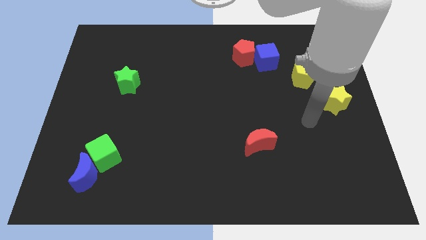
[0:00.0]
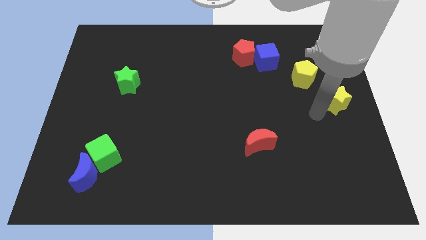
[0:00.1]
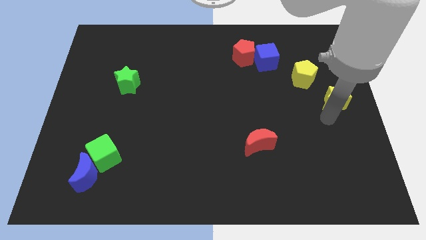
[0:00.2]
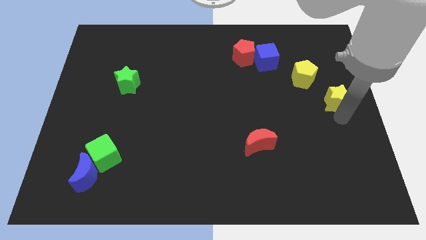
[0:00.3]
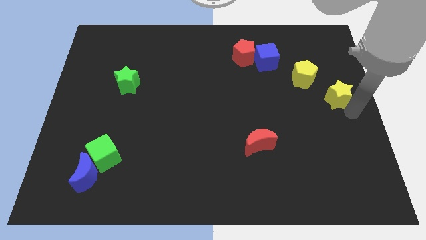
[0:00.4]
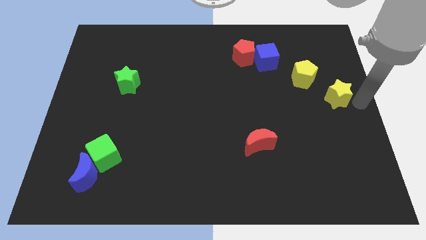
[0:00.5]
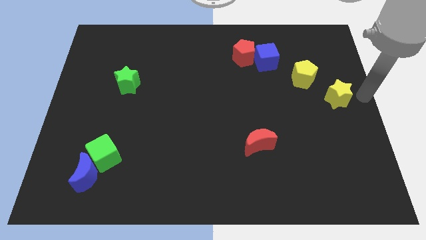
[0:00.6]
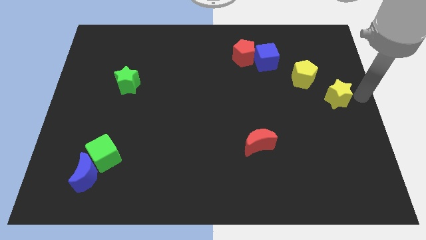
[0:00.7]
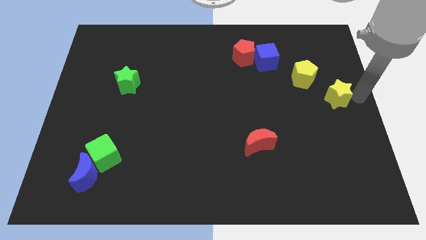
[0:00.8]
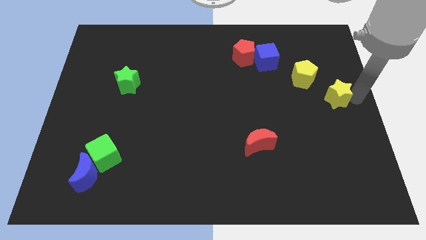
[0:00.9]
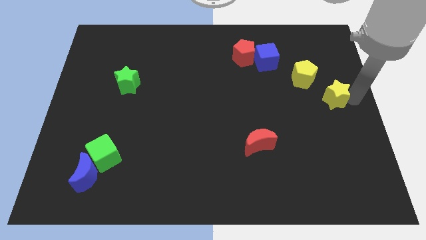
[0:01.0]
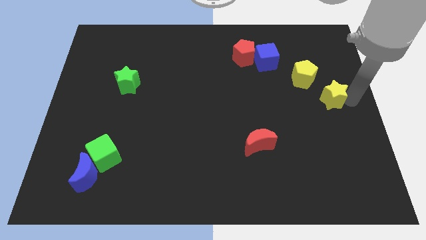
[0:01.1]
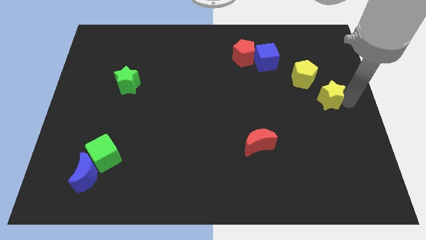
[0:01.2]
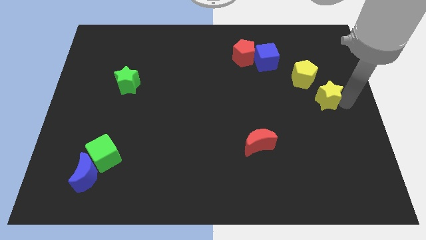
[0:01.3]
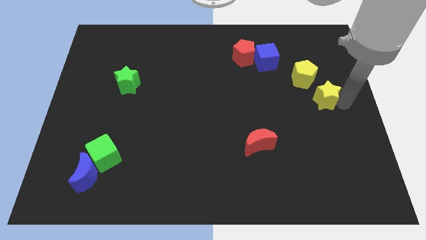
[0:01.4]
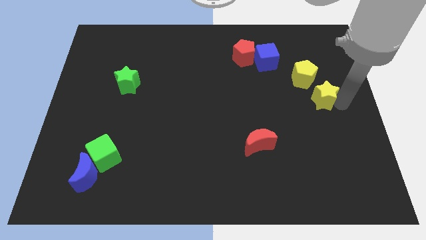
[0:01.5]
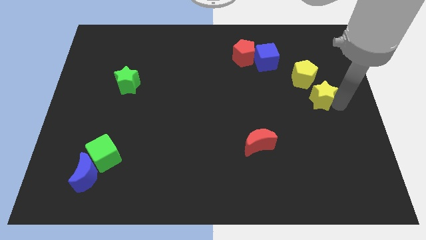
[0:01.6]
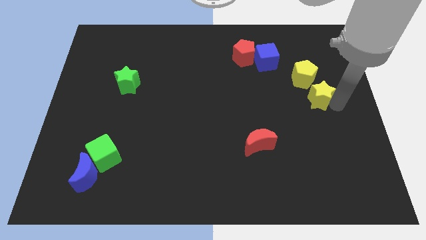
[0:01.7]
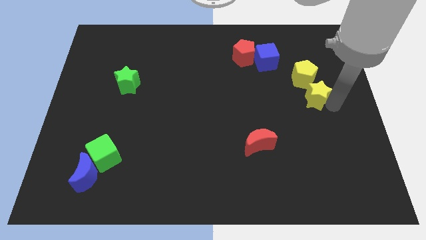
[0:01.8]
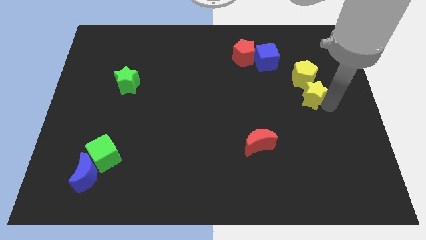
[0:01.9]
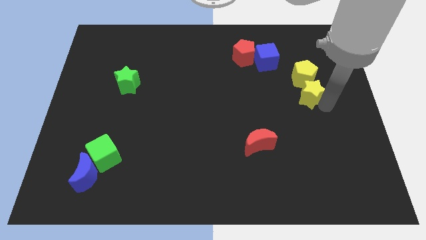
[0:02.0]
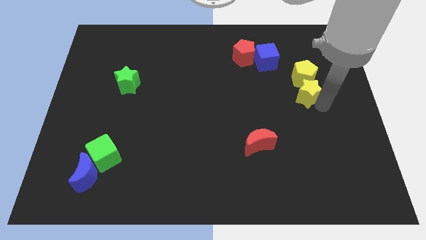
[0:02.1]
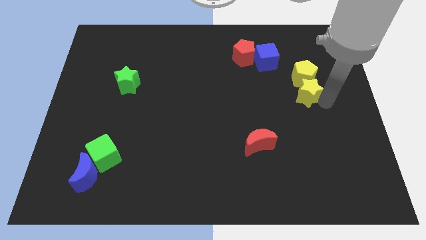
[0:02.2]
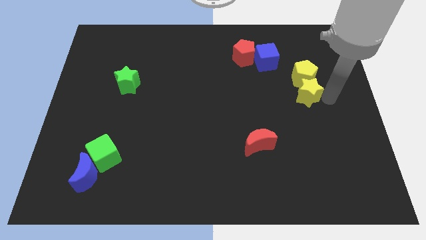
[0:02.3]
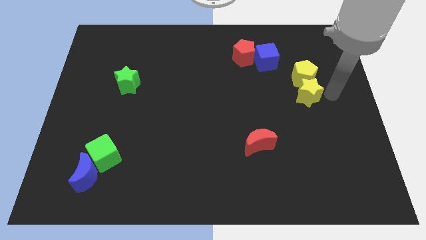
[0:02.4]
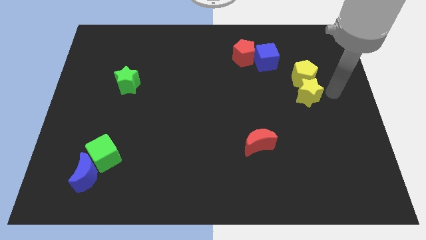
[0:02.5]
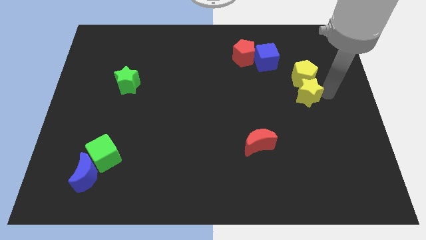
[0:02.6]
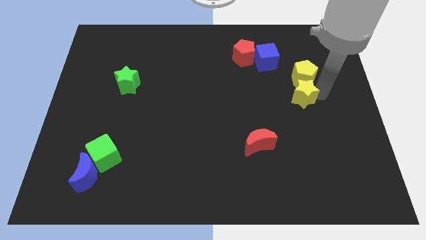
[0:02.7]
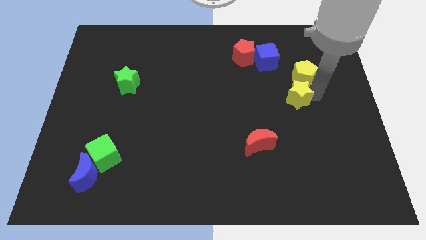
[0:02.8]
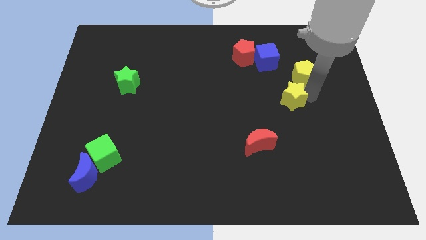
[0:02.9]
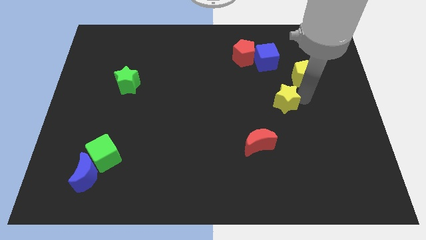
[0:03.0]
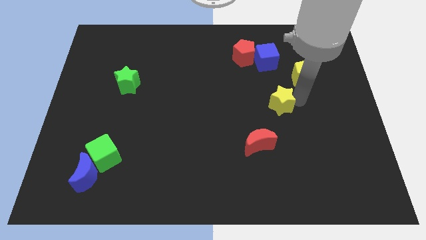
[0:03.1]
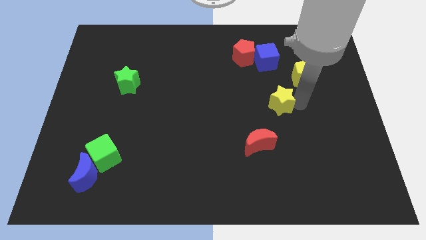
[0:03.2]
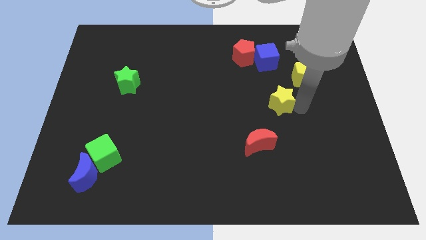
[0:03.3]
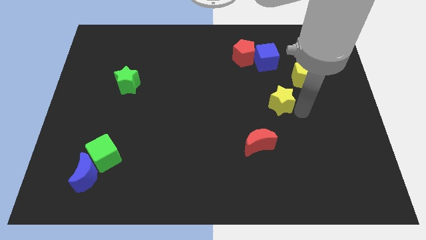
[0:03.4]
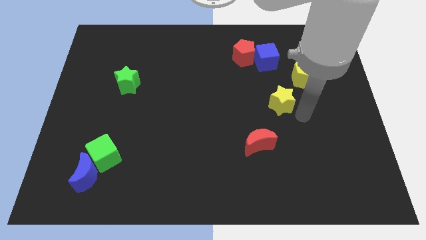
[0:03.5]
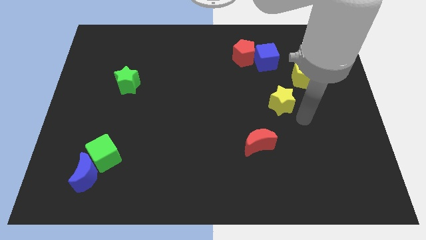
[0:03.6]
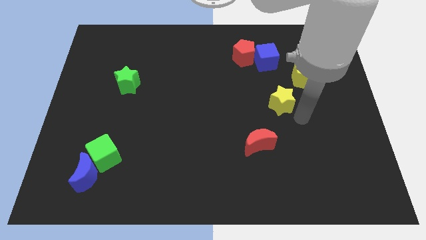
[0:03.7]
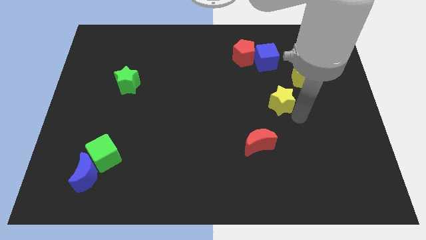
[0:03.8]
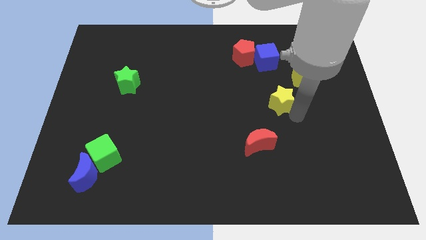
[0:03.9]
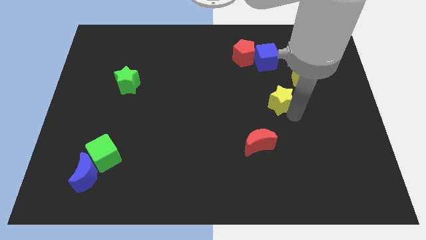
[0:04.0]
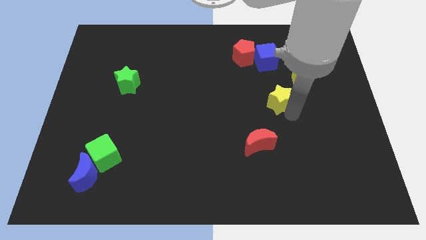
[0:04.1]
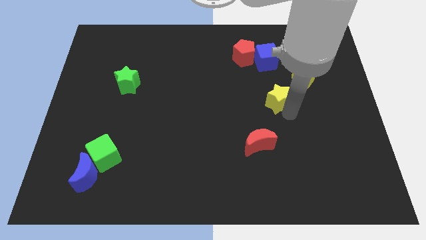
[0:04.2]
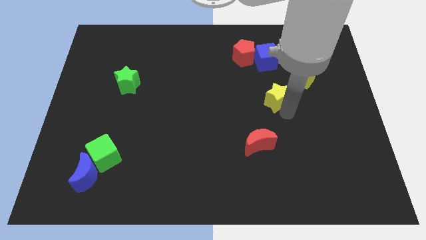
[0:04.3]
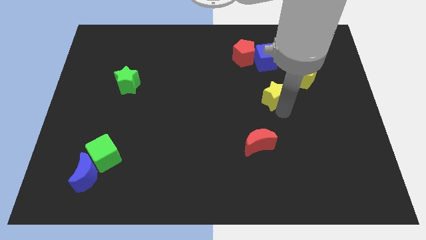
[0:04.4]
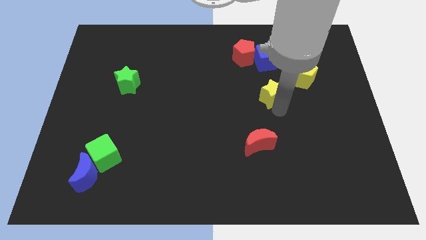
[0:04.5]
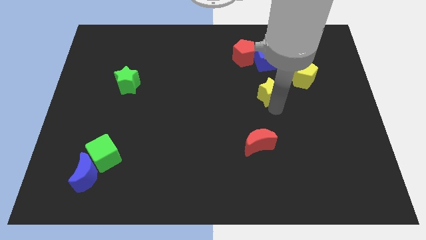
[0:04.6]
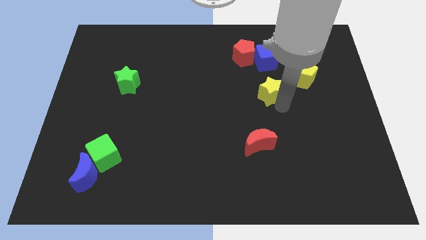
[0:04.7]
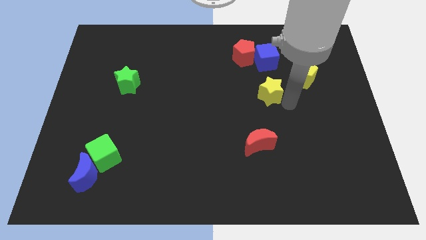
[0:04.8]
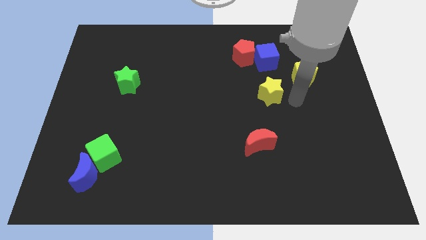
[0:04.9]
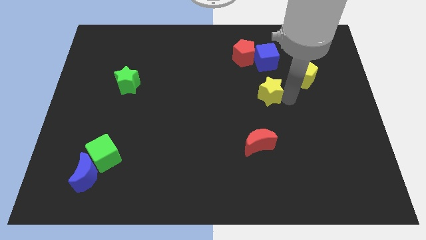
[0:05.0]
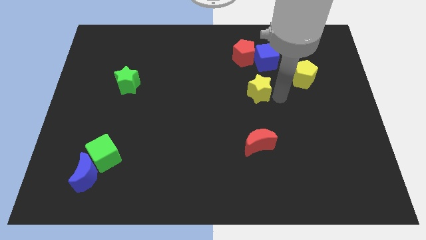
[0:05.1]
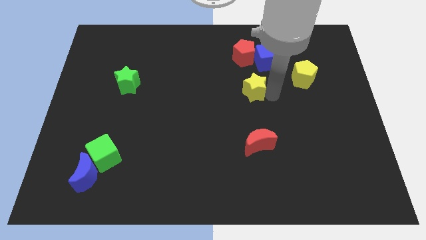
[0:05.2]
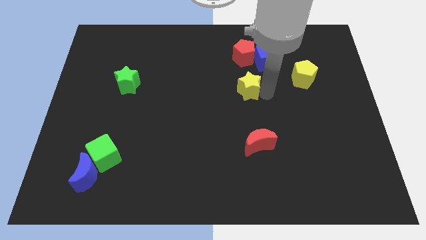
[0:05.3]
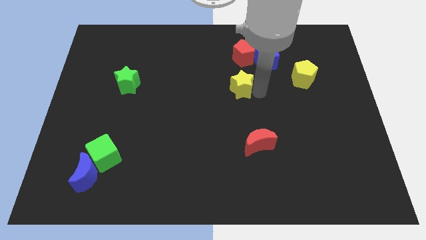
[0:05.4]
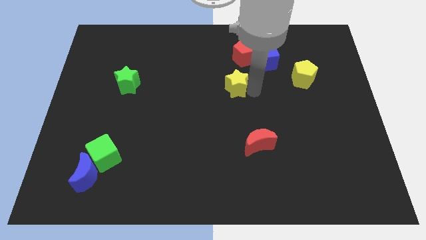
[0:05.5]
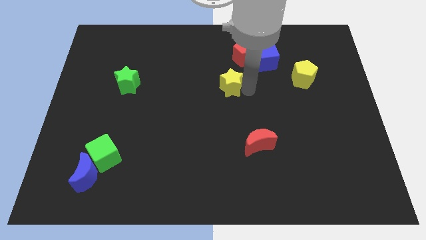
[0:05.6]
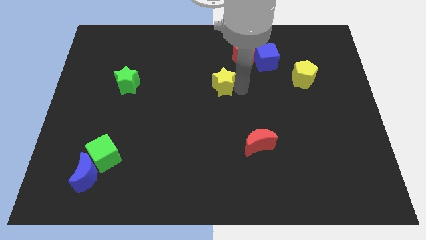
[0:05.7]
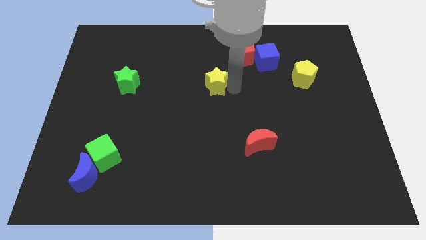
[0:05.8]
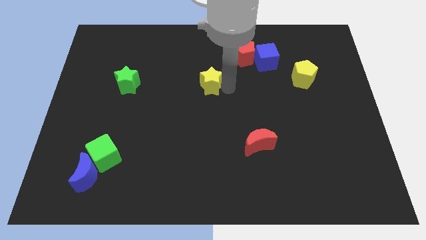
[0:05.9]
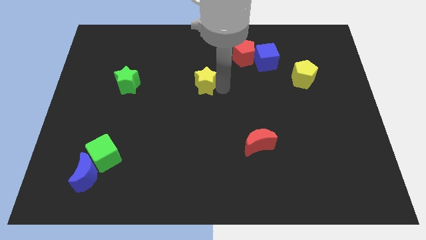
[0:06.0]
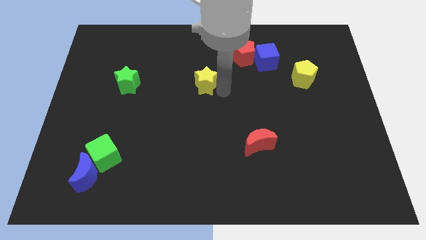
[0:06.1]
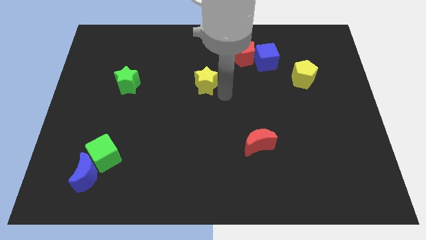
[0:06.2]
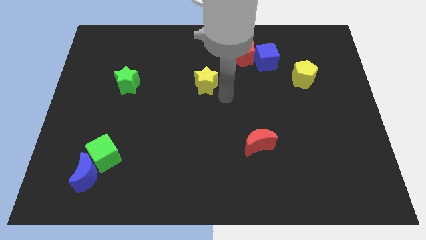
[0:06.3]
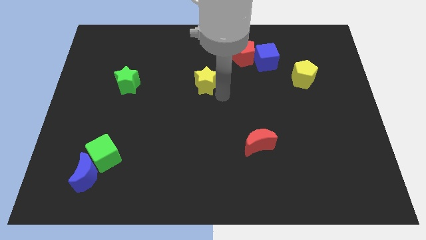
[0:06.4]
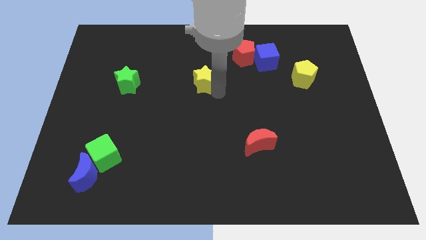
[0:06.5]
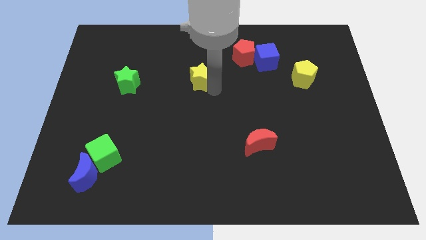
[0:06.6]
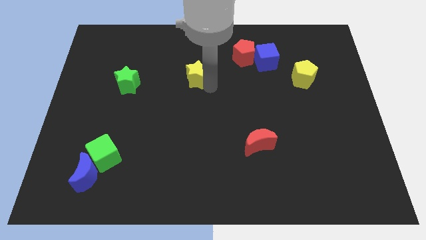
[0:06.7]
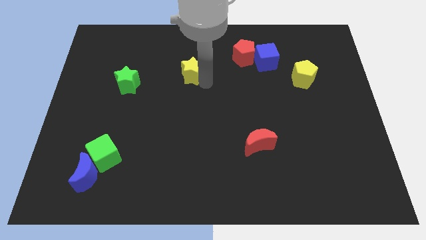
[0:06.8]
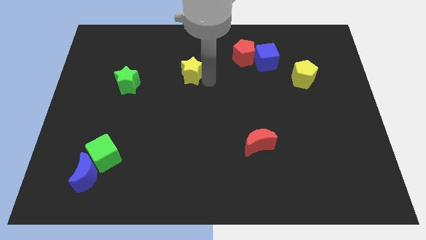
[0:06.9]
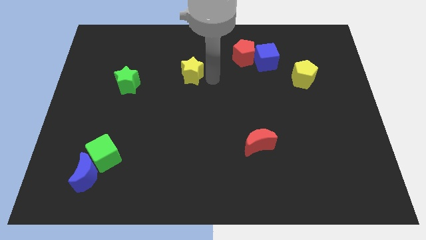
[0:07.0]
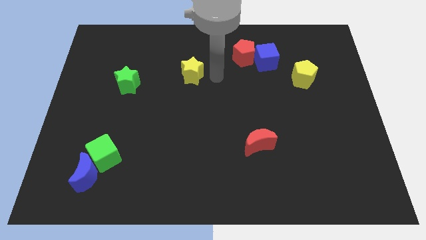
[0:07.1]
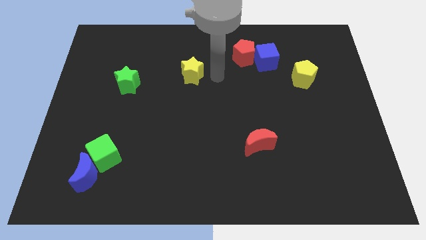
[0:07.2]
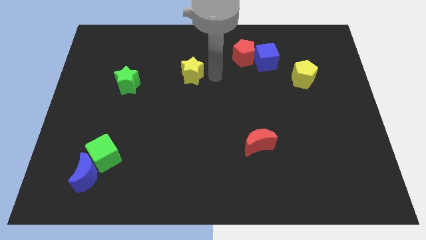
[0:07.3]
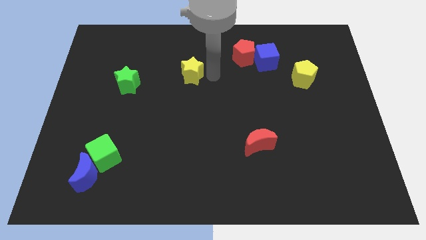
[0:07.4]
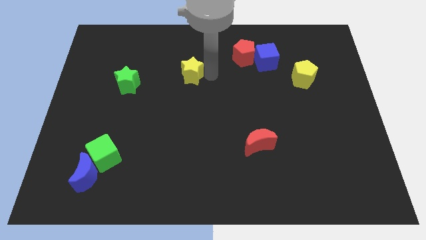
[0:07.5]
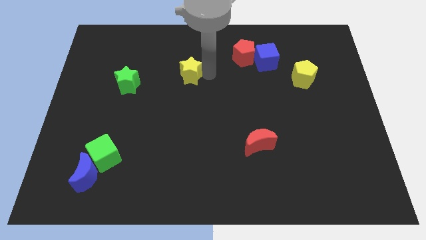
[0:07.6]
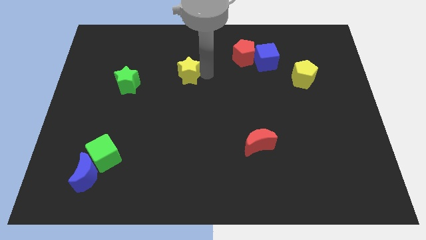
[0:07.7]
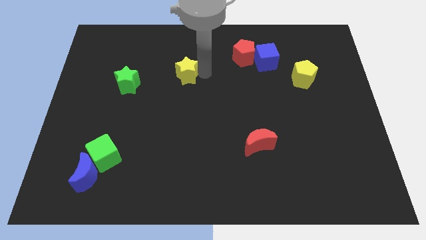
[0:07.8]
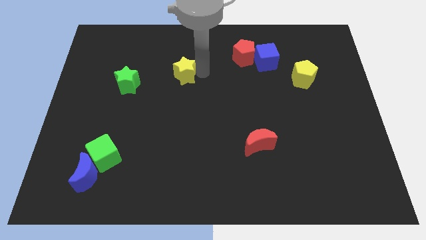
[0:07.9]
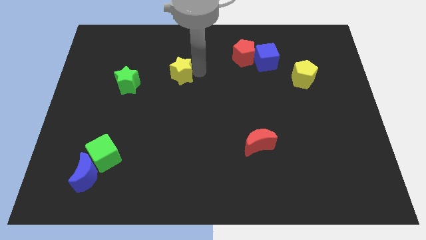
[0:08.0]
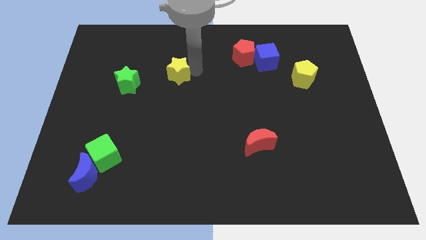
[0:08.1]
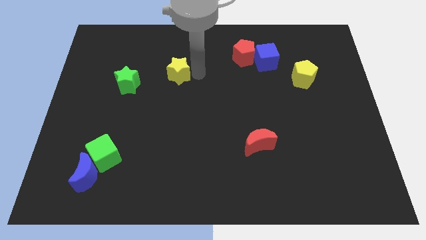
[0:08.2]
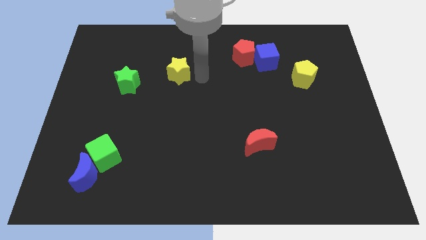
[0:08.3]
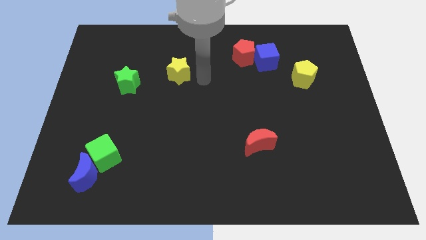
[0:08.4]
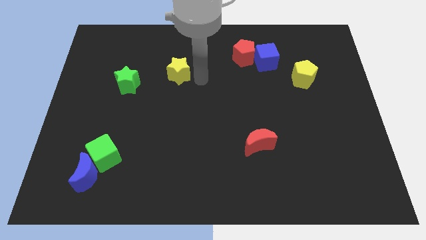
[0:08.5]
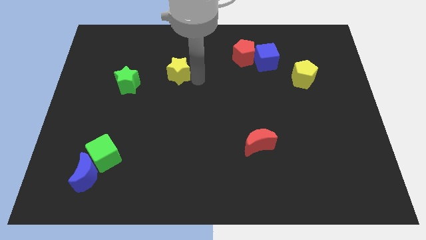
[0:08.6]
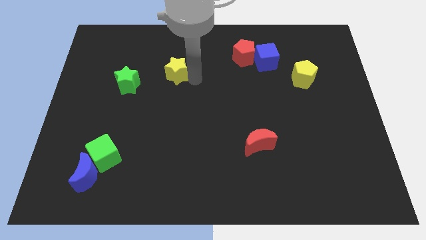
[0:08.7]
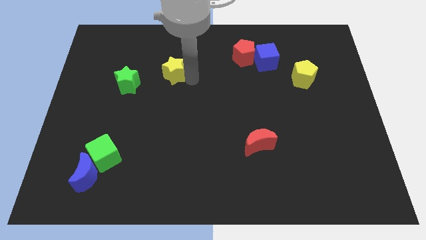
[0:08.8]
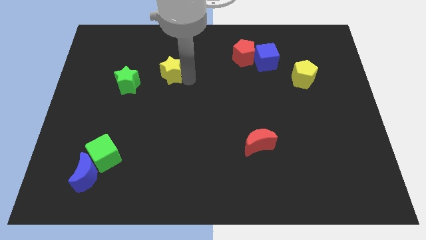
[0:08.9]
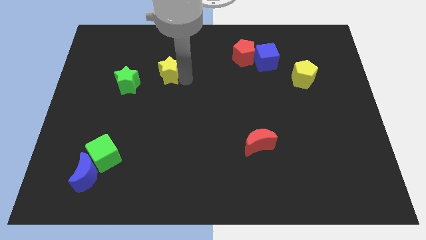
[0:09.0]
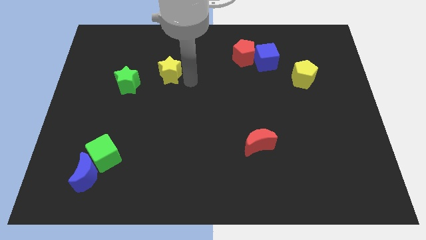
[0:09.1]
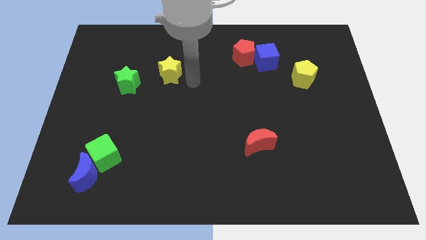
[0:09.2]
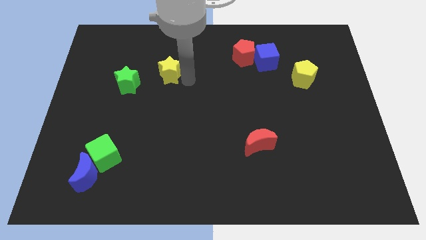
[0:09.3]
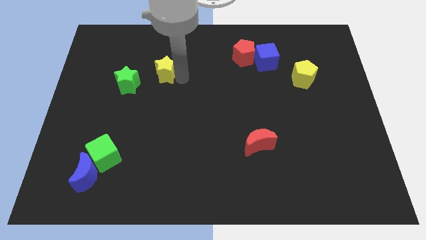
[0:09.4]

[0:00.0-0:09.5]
move the yellow star diagonally up and to the right of the green star
